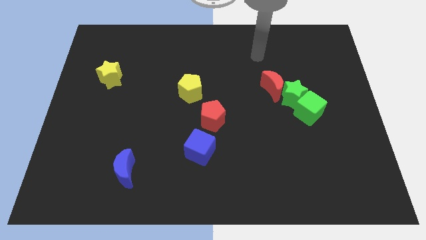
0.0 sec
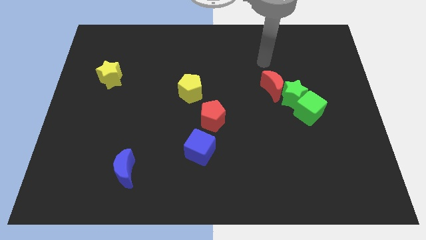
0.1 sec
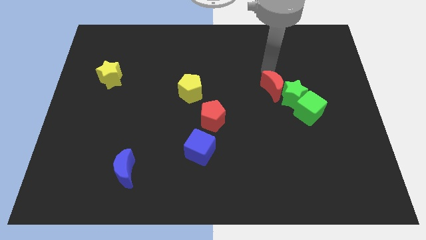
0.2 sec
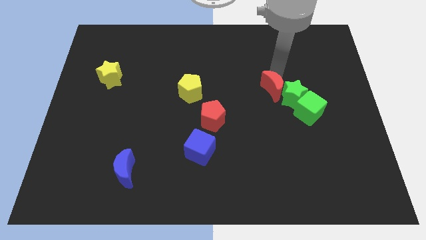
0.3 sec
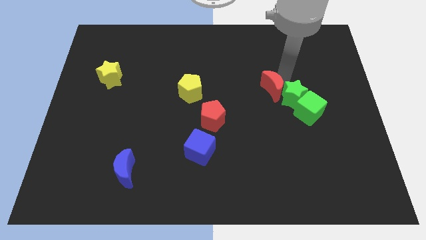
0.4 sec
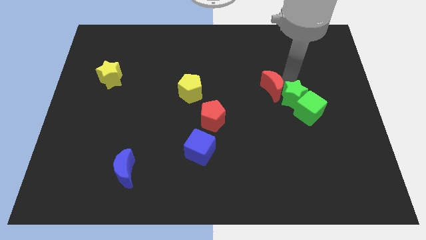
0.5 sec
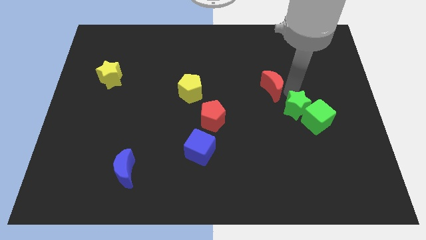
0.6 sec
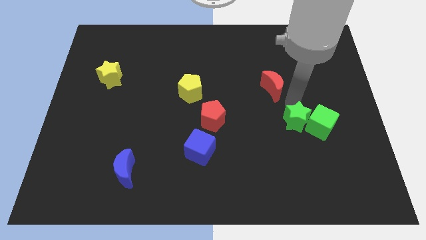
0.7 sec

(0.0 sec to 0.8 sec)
pull the red moon apart from the green star

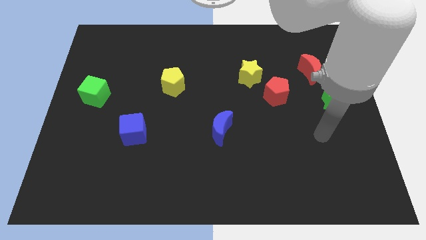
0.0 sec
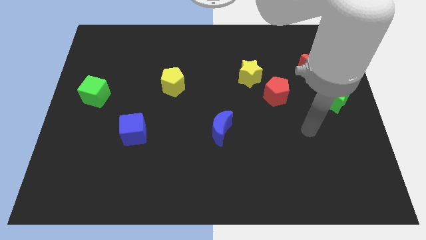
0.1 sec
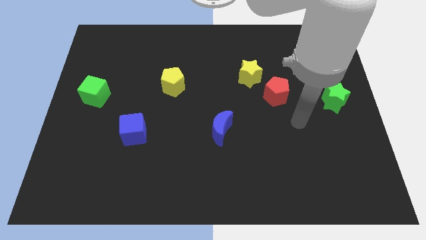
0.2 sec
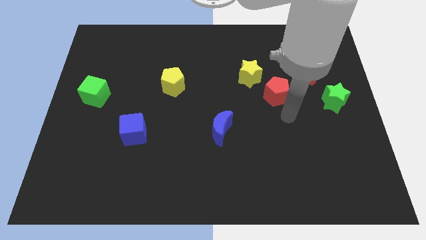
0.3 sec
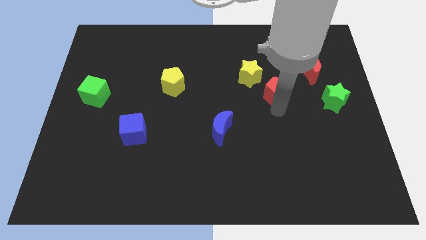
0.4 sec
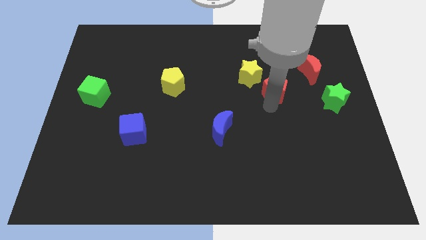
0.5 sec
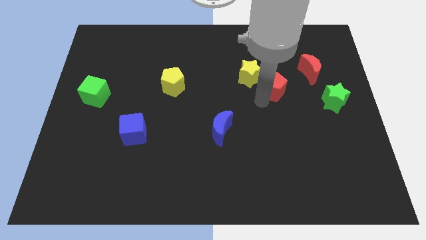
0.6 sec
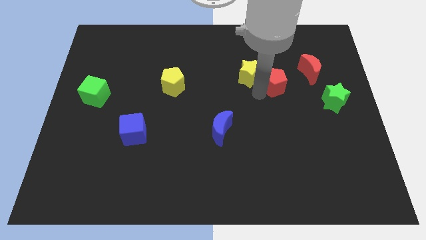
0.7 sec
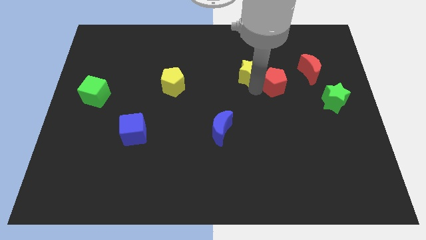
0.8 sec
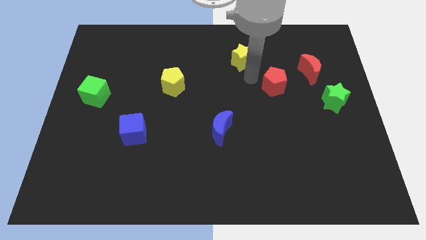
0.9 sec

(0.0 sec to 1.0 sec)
pull the red pentagon apart from the yellow star

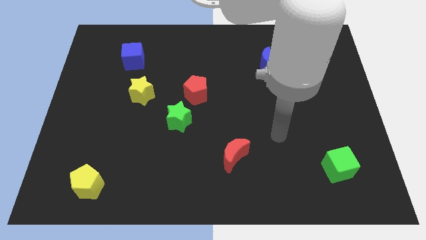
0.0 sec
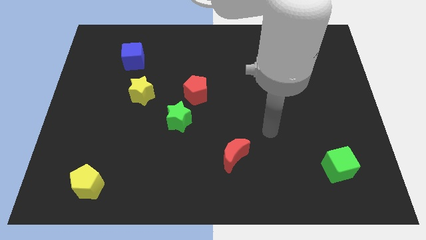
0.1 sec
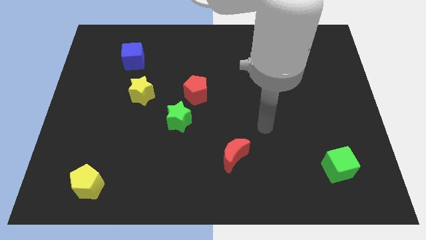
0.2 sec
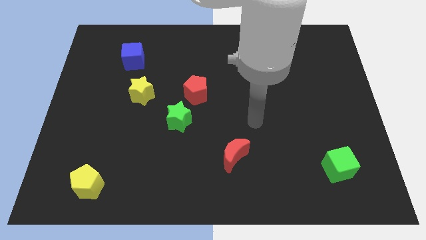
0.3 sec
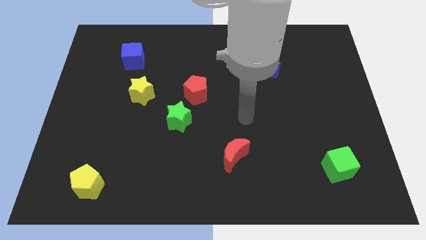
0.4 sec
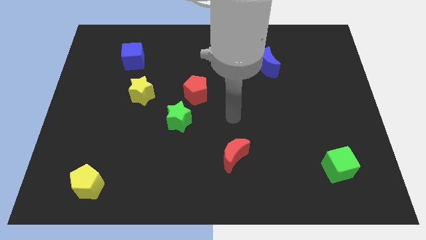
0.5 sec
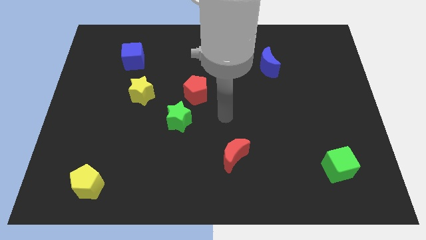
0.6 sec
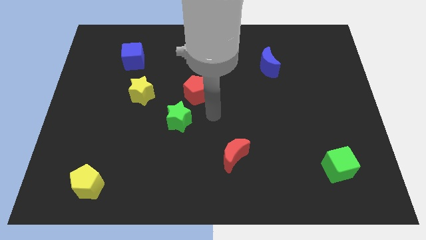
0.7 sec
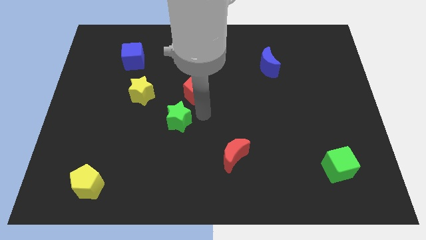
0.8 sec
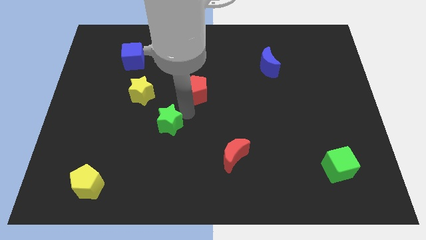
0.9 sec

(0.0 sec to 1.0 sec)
move the red pentagon away from the green star

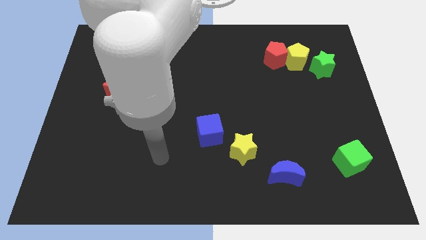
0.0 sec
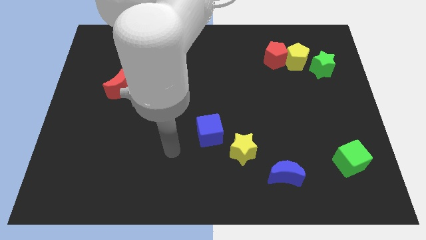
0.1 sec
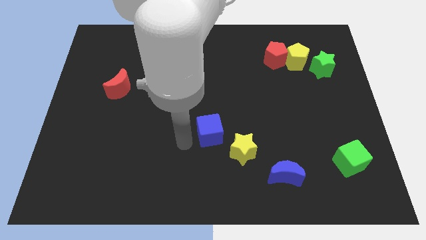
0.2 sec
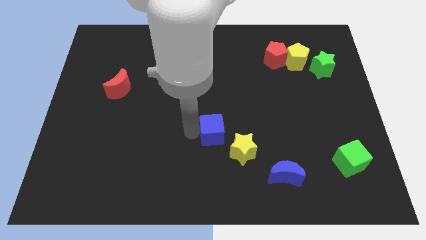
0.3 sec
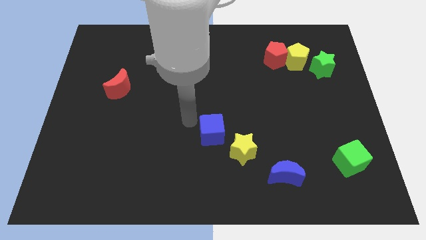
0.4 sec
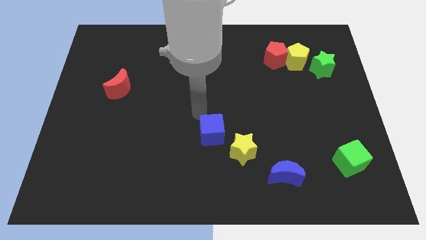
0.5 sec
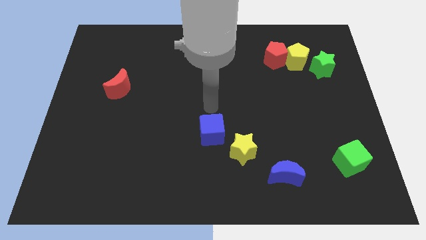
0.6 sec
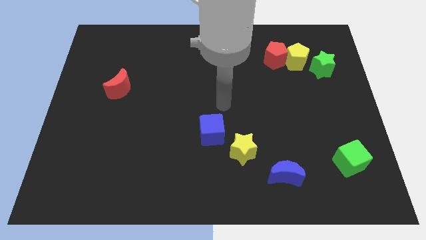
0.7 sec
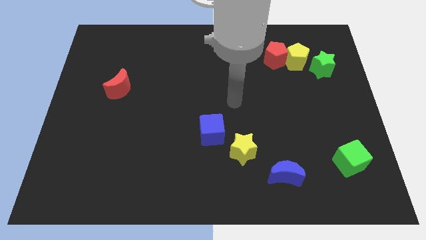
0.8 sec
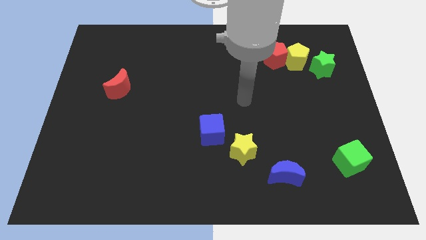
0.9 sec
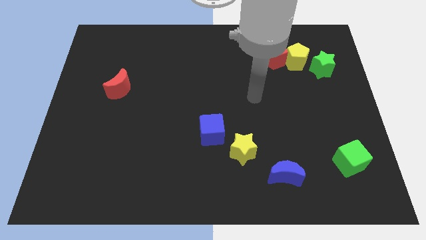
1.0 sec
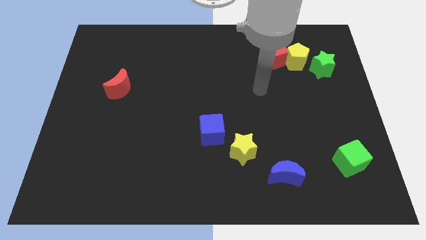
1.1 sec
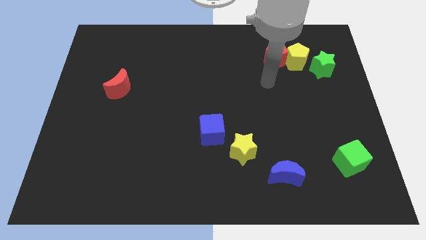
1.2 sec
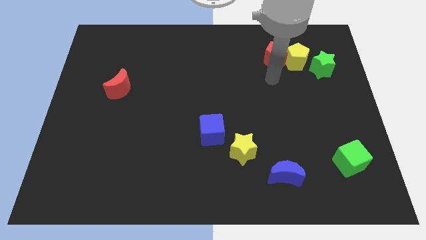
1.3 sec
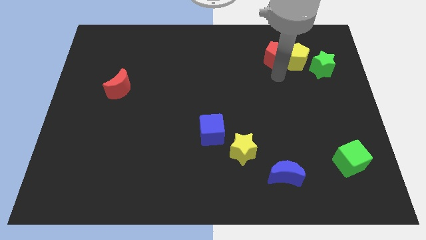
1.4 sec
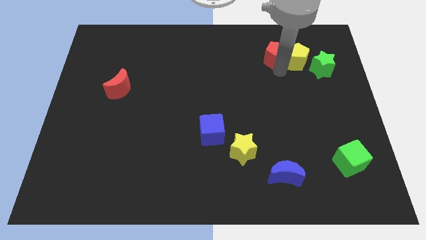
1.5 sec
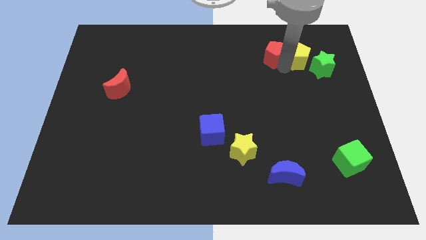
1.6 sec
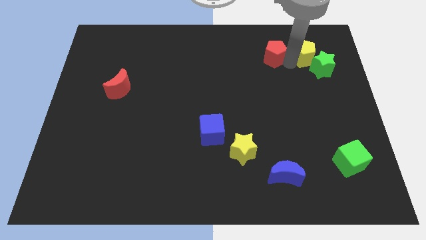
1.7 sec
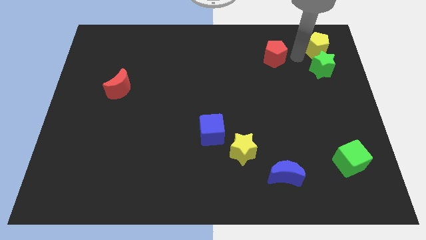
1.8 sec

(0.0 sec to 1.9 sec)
pull the red pentagon apart from the yellow pentagon

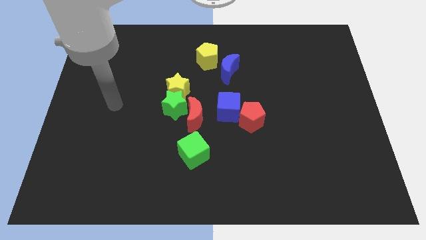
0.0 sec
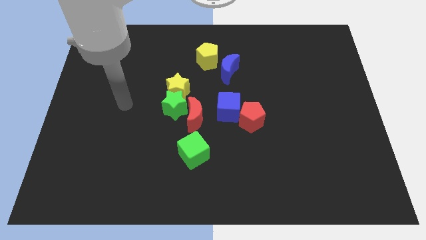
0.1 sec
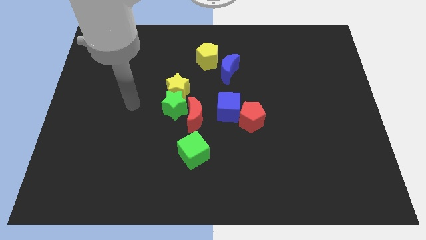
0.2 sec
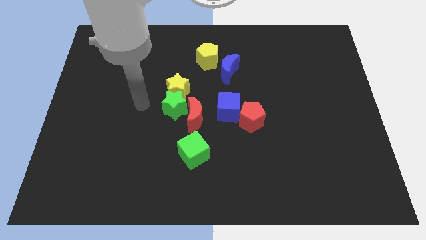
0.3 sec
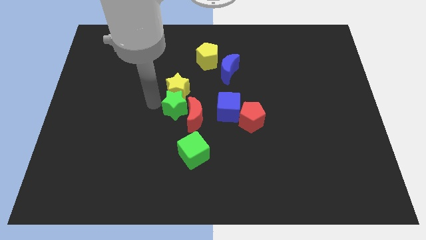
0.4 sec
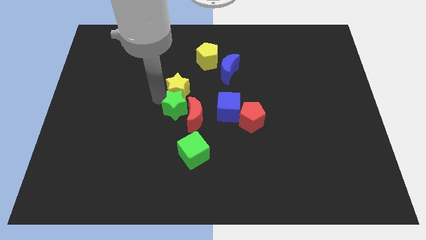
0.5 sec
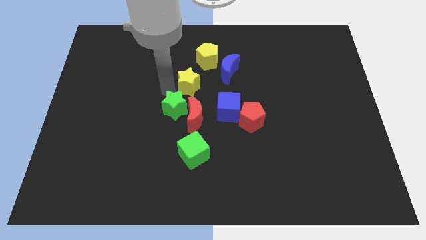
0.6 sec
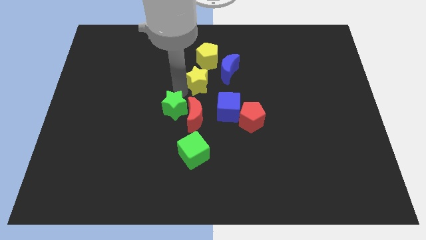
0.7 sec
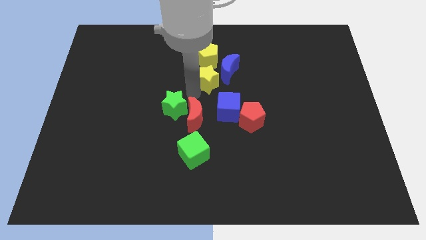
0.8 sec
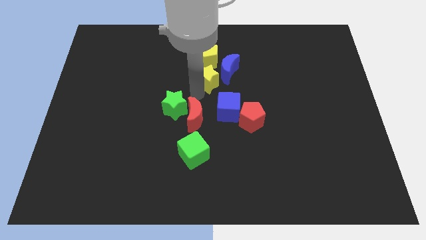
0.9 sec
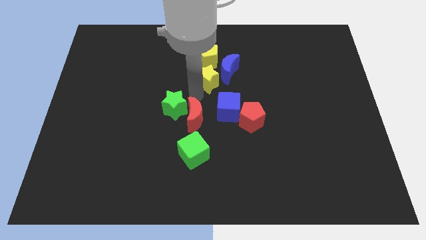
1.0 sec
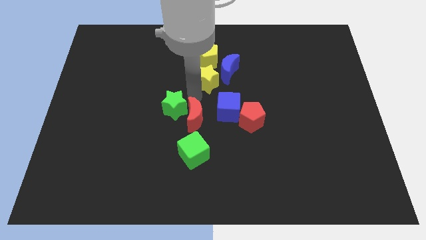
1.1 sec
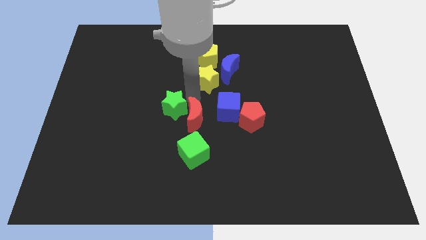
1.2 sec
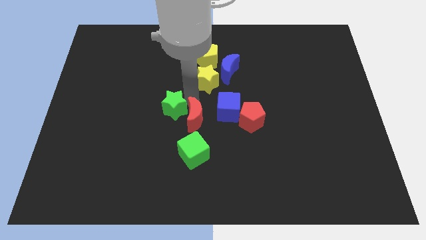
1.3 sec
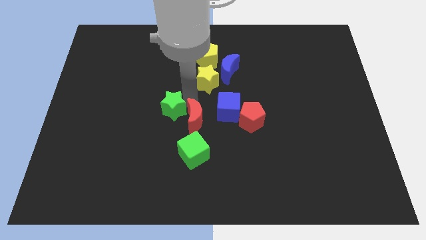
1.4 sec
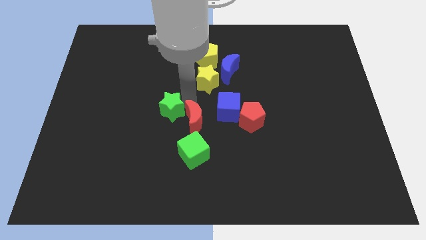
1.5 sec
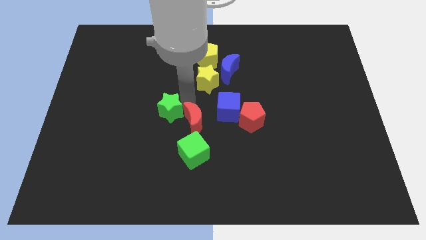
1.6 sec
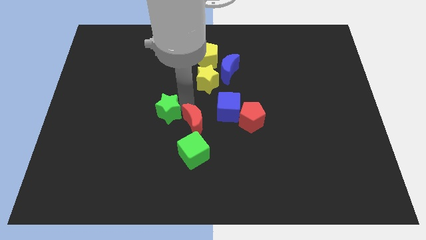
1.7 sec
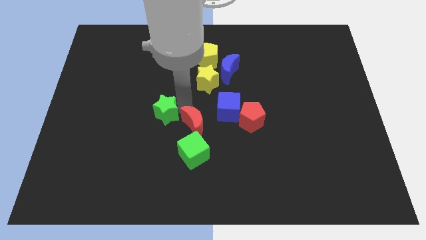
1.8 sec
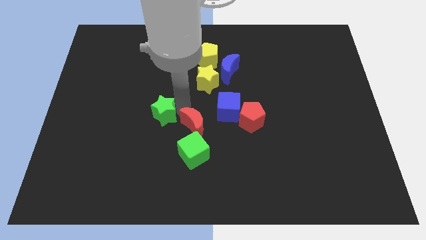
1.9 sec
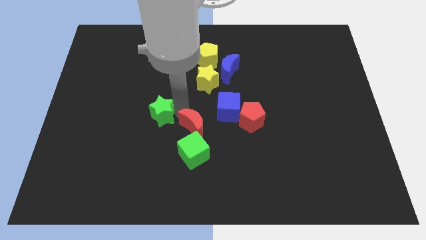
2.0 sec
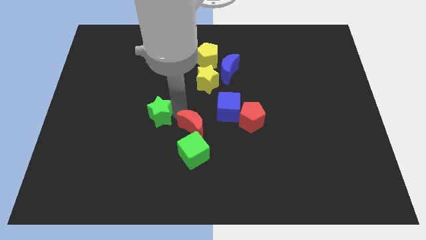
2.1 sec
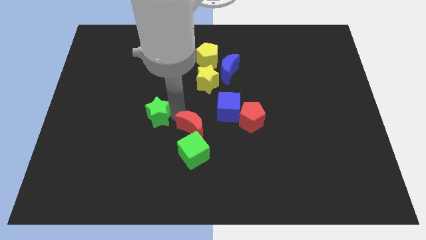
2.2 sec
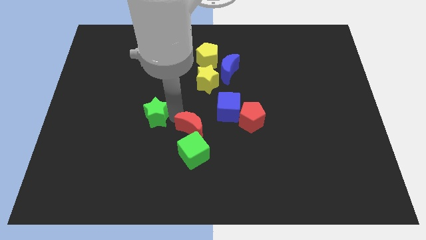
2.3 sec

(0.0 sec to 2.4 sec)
move the green star away from the yellow star and red moon

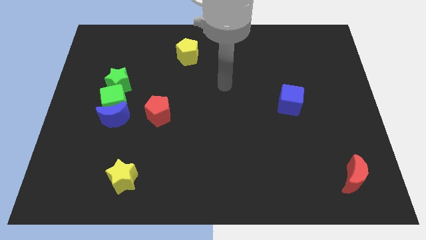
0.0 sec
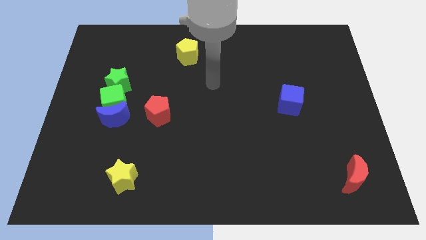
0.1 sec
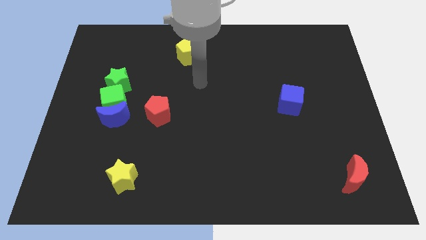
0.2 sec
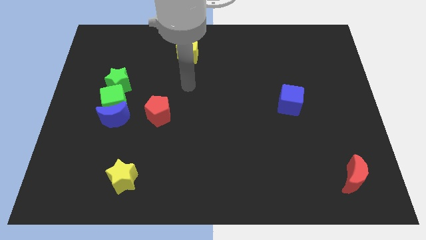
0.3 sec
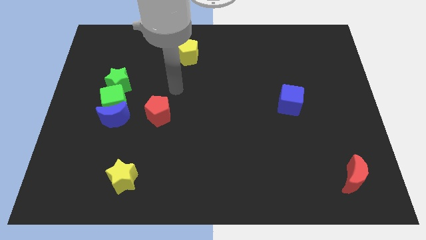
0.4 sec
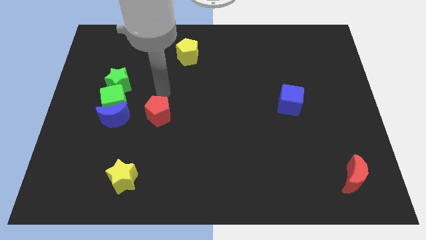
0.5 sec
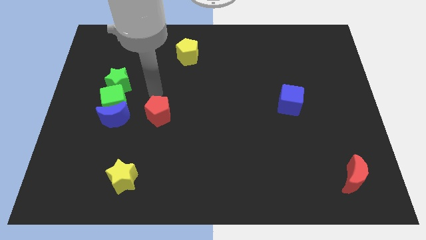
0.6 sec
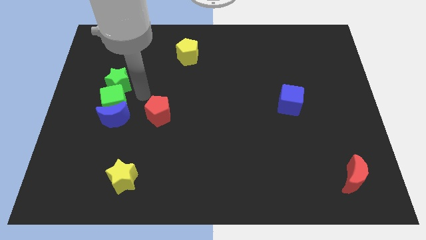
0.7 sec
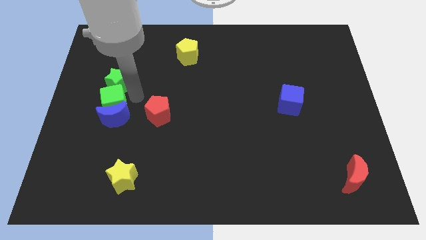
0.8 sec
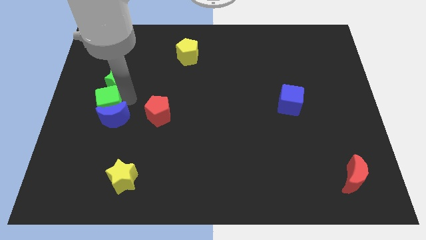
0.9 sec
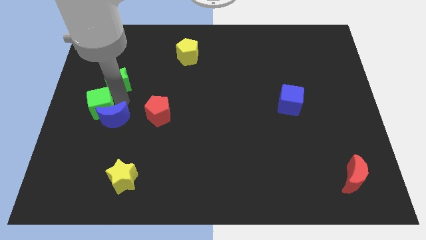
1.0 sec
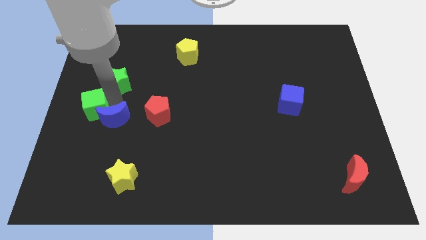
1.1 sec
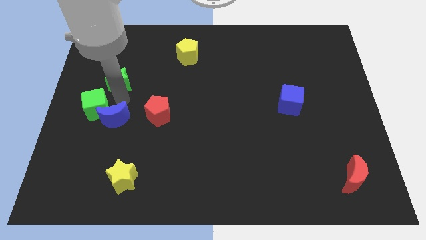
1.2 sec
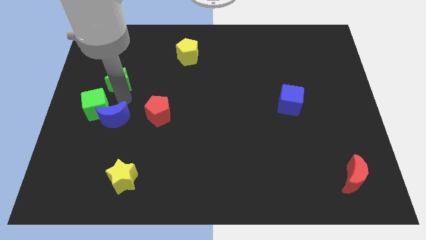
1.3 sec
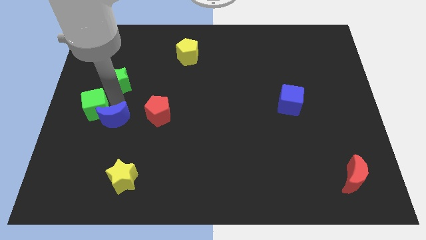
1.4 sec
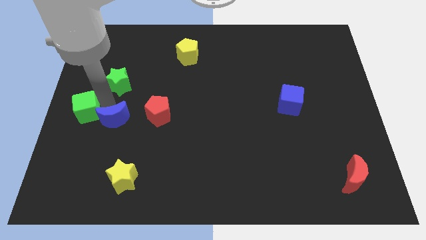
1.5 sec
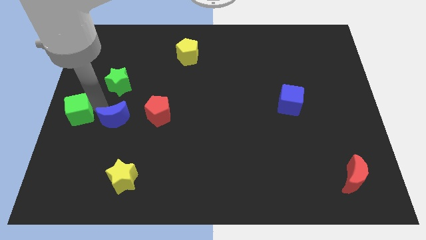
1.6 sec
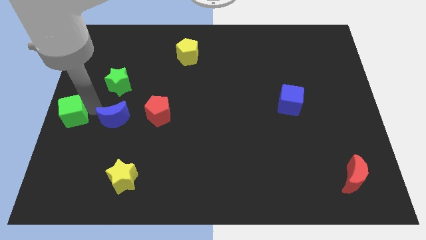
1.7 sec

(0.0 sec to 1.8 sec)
move the green cube away from the blue moon and green star

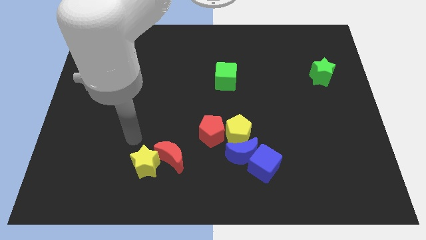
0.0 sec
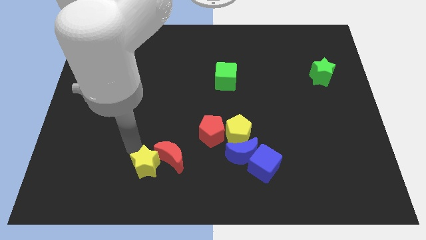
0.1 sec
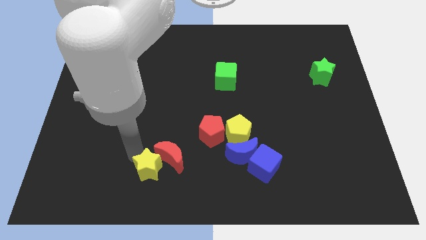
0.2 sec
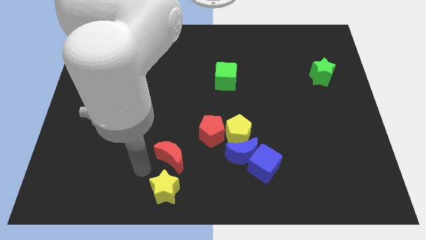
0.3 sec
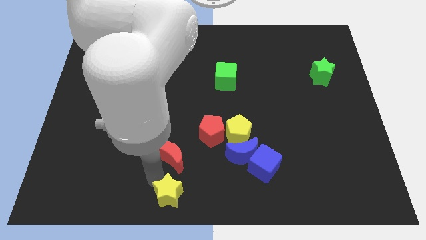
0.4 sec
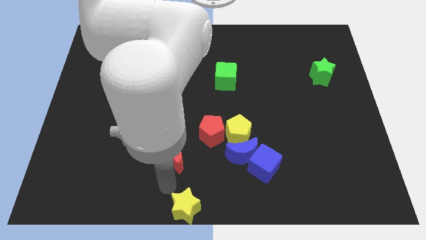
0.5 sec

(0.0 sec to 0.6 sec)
move the red moon away from the yellow star
